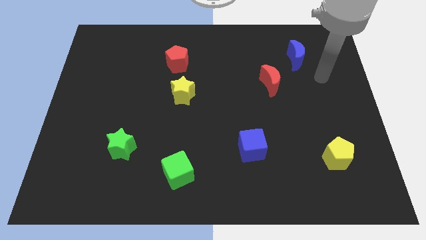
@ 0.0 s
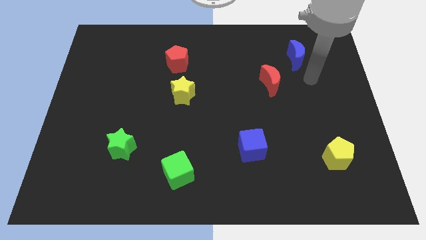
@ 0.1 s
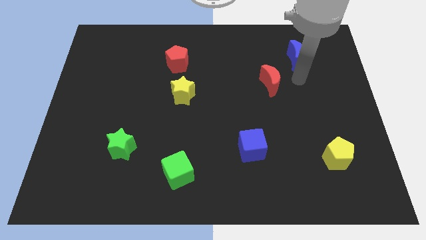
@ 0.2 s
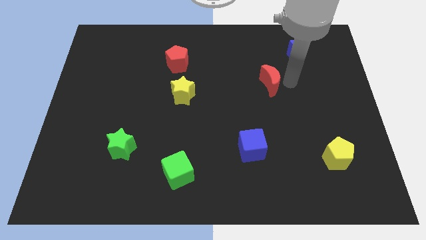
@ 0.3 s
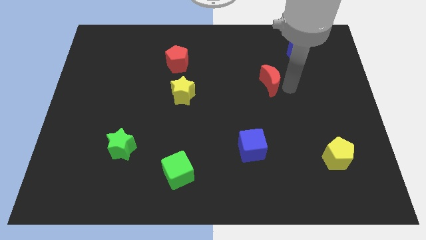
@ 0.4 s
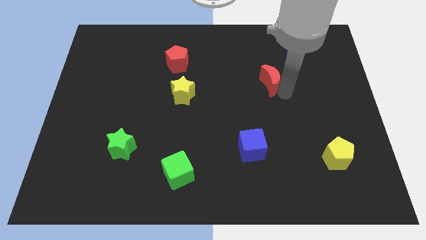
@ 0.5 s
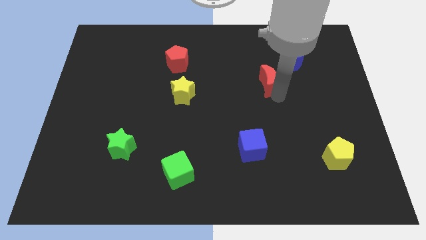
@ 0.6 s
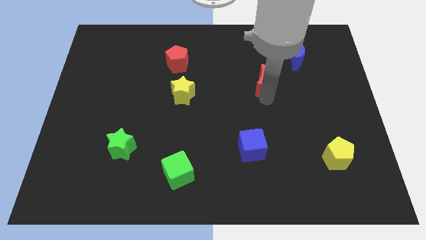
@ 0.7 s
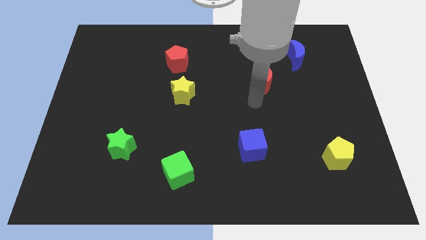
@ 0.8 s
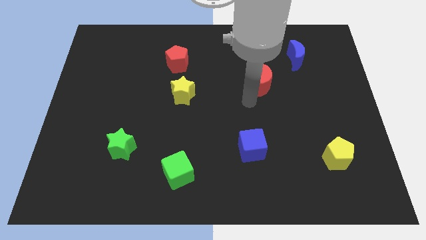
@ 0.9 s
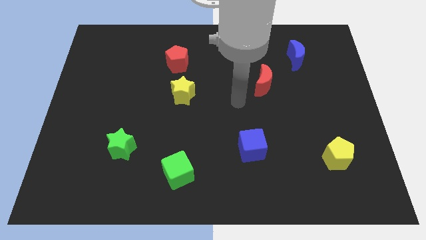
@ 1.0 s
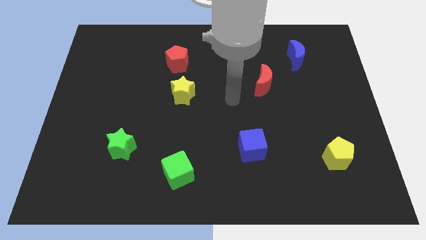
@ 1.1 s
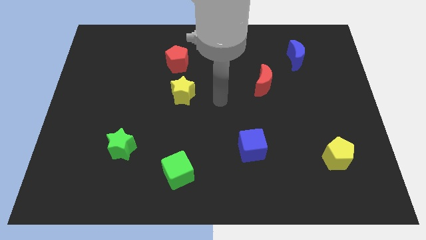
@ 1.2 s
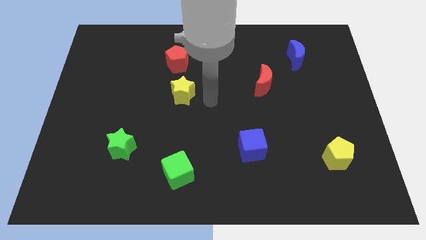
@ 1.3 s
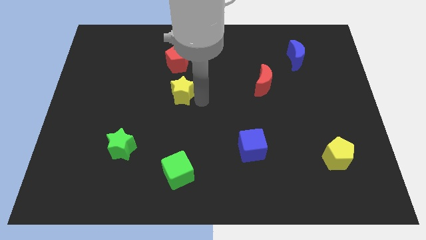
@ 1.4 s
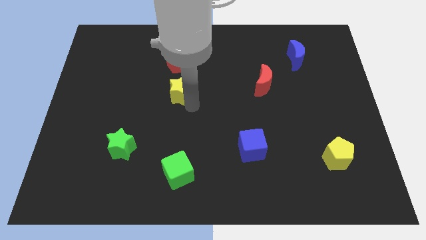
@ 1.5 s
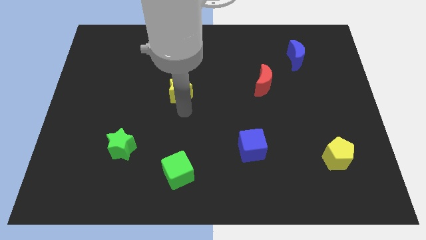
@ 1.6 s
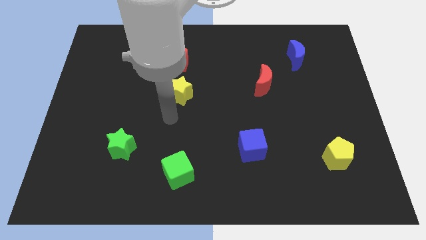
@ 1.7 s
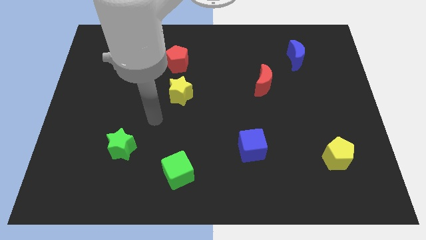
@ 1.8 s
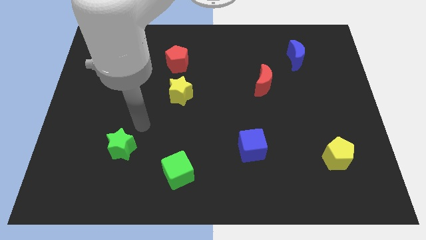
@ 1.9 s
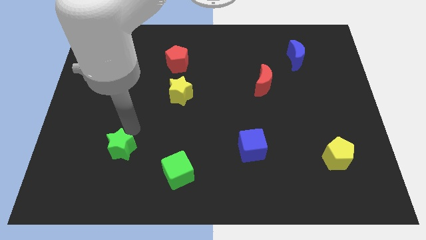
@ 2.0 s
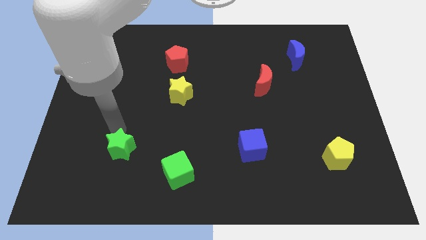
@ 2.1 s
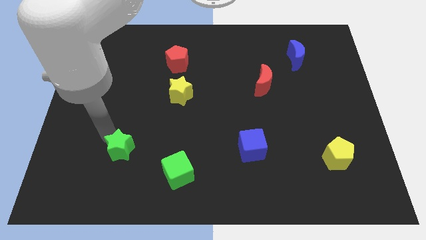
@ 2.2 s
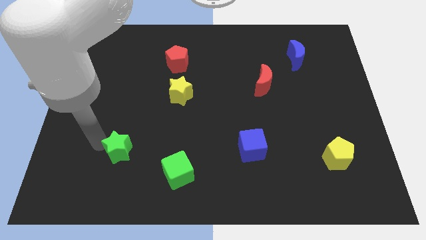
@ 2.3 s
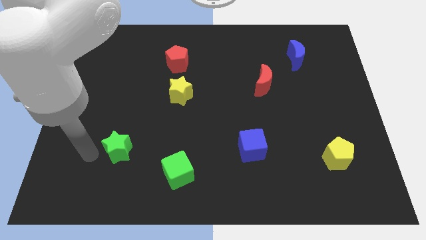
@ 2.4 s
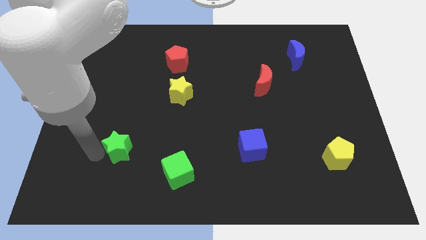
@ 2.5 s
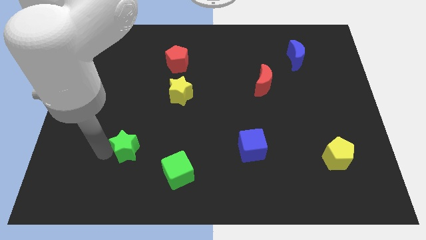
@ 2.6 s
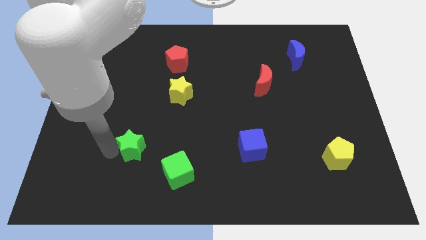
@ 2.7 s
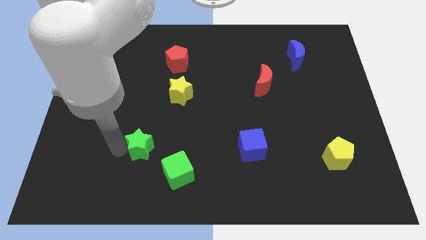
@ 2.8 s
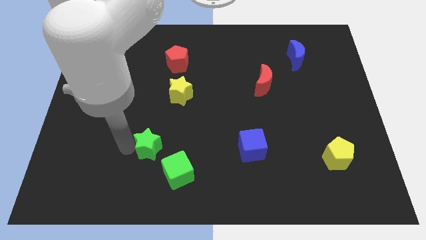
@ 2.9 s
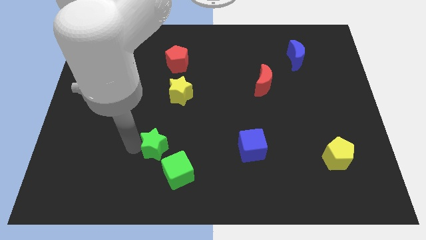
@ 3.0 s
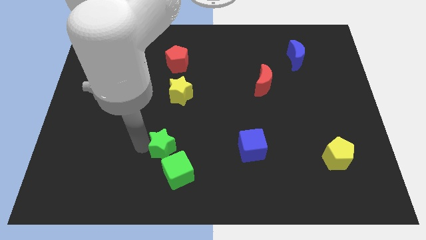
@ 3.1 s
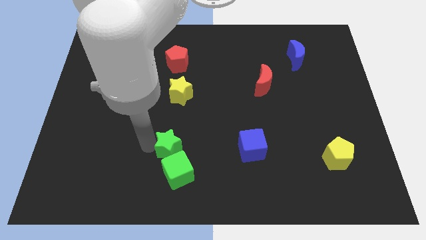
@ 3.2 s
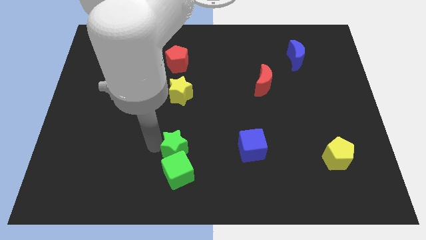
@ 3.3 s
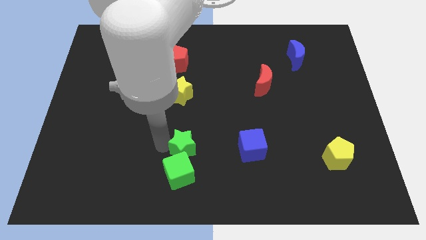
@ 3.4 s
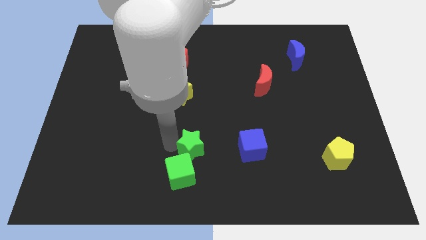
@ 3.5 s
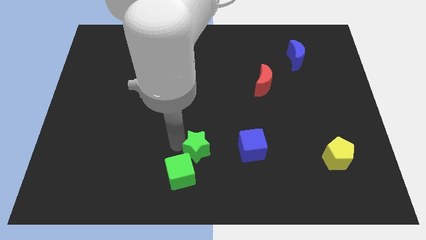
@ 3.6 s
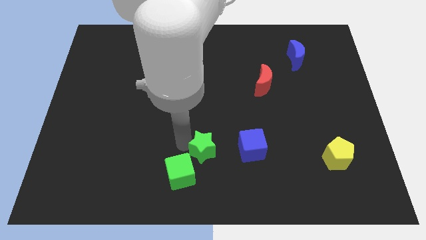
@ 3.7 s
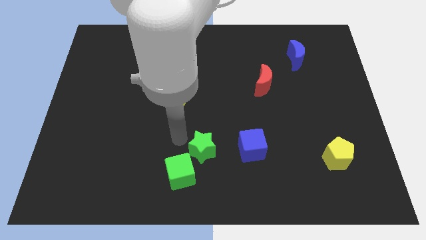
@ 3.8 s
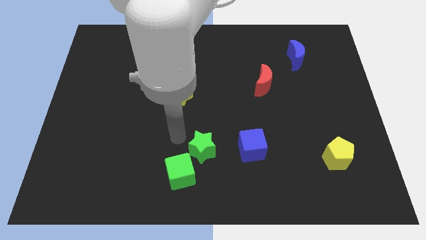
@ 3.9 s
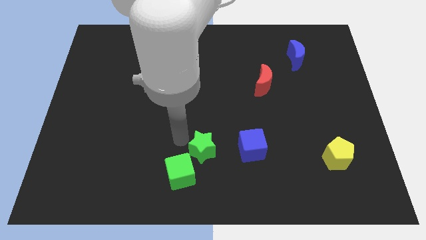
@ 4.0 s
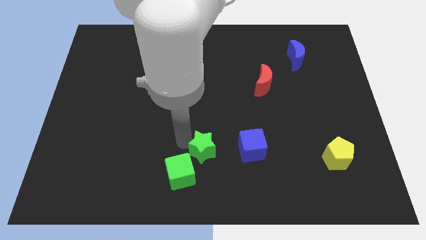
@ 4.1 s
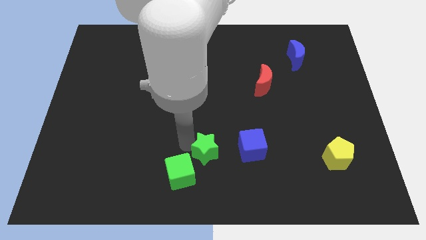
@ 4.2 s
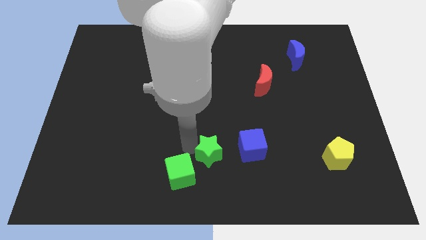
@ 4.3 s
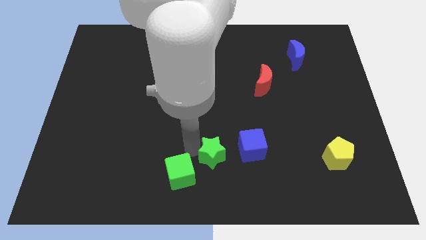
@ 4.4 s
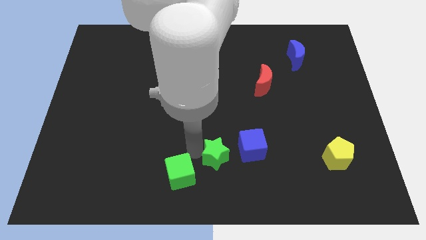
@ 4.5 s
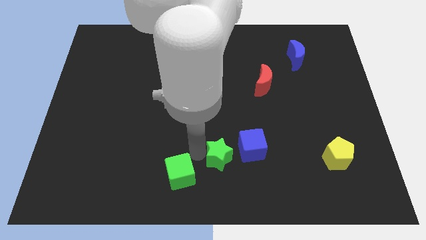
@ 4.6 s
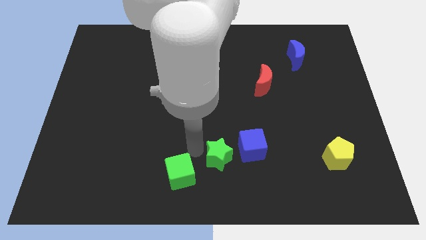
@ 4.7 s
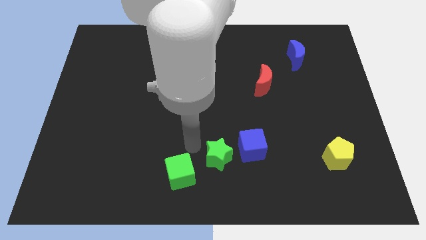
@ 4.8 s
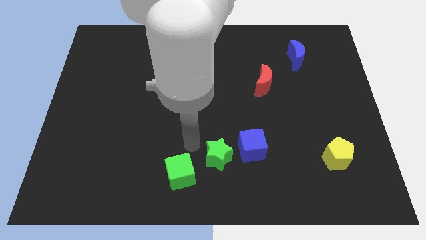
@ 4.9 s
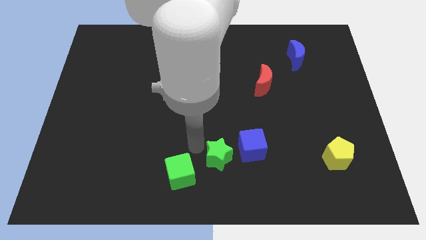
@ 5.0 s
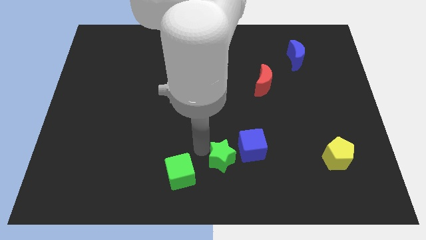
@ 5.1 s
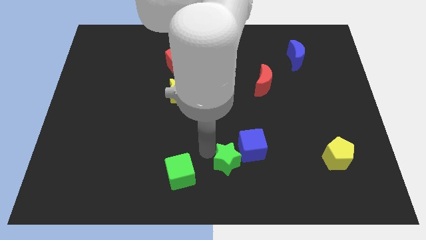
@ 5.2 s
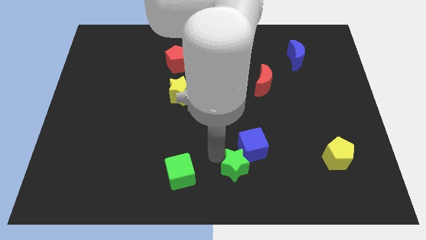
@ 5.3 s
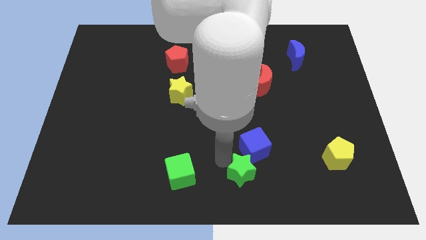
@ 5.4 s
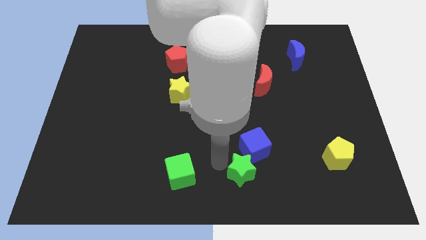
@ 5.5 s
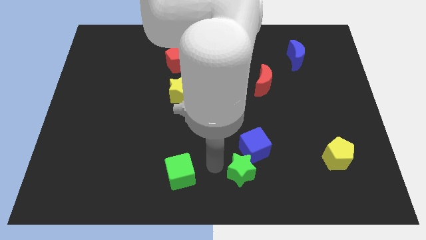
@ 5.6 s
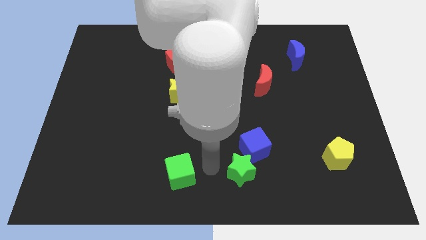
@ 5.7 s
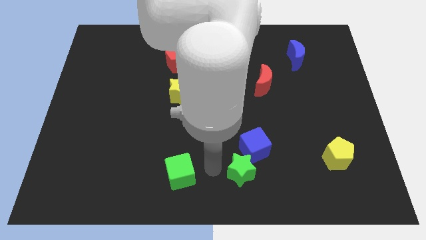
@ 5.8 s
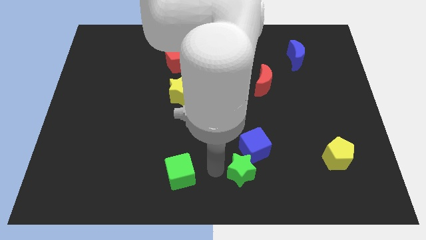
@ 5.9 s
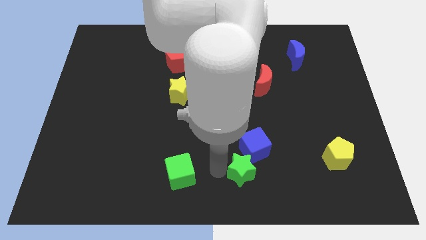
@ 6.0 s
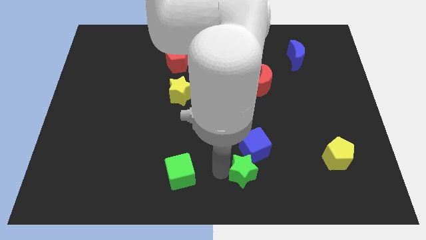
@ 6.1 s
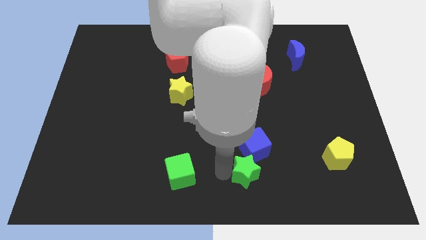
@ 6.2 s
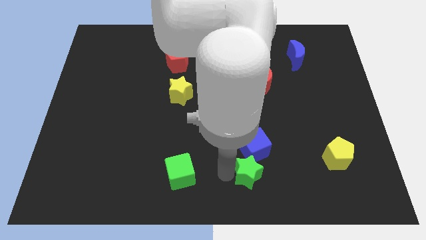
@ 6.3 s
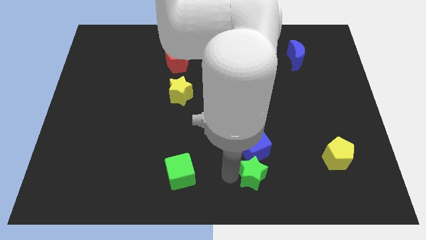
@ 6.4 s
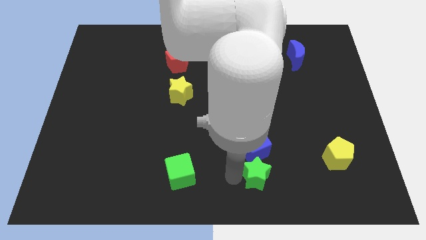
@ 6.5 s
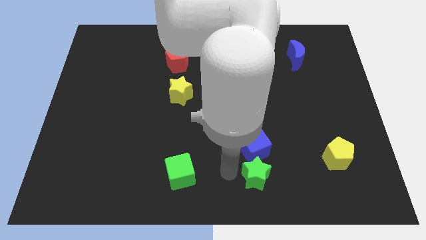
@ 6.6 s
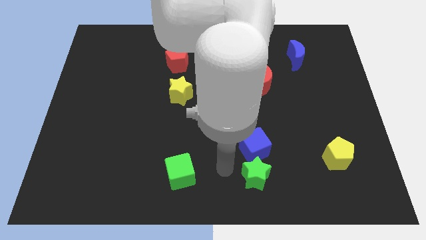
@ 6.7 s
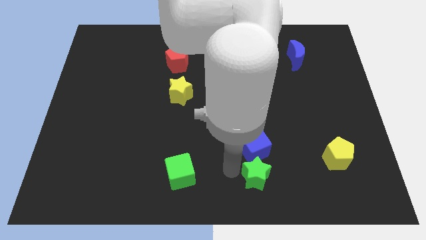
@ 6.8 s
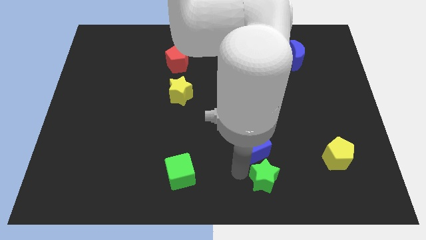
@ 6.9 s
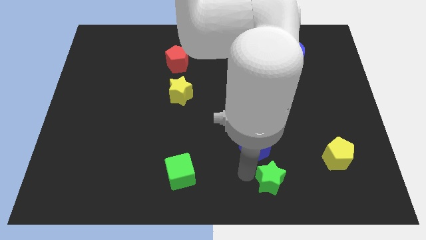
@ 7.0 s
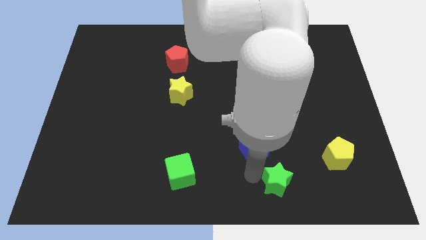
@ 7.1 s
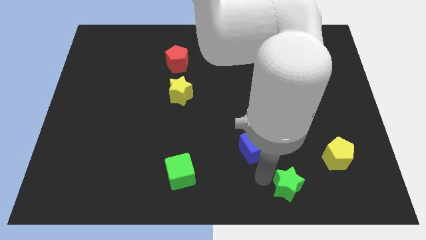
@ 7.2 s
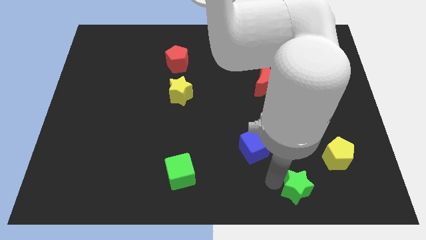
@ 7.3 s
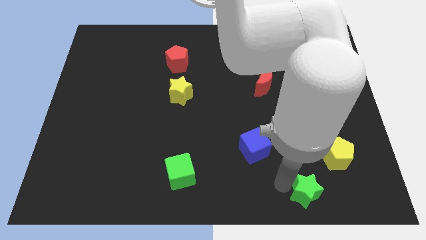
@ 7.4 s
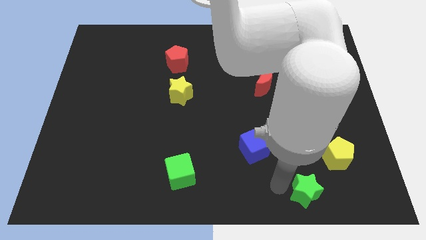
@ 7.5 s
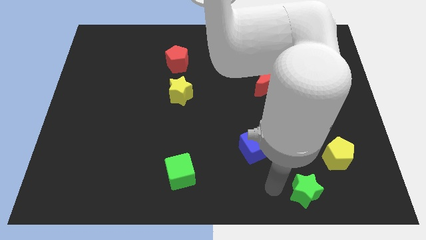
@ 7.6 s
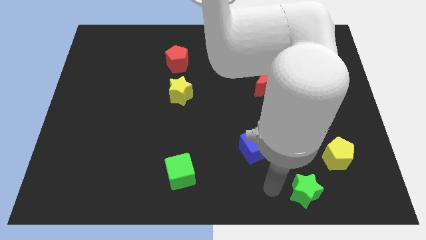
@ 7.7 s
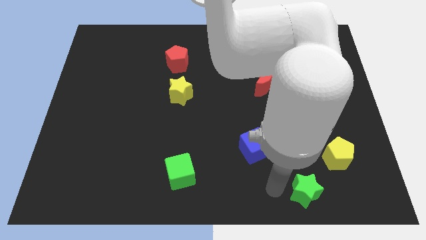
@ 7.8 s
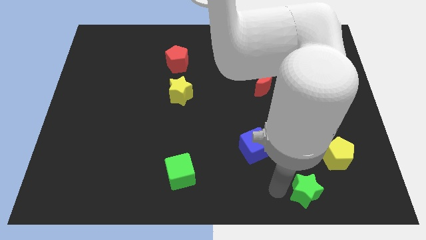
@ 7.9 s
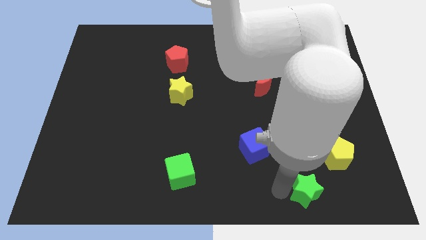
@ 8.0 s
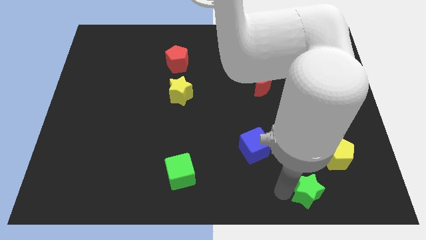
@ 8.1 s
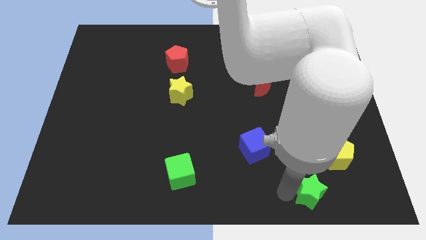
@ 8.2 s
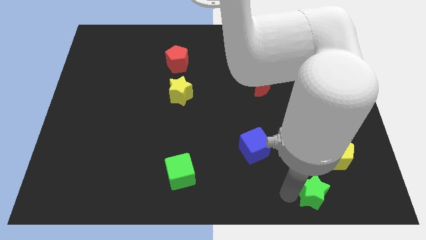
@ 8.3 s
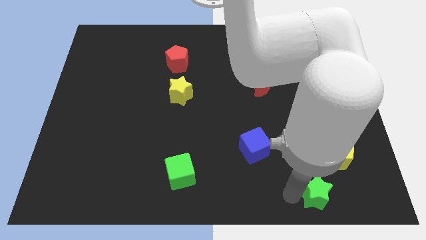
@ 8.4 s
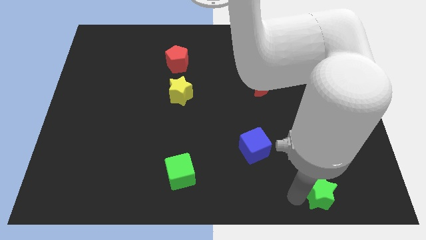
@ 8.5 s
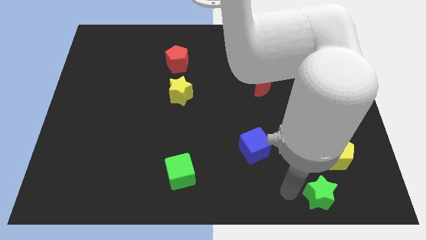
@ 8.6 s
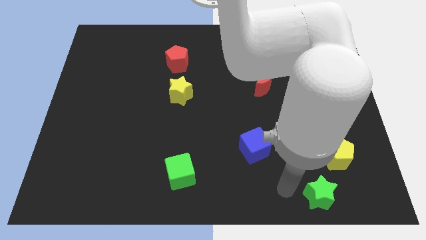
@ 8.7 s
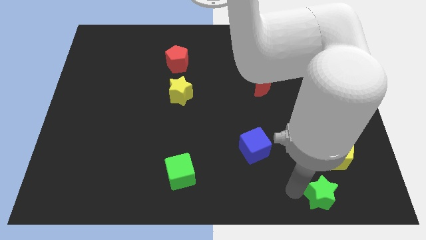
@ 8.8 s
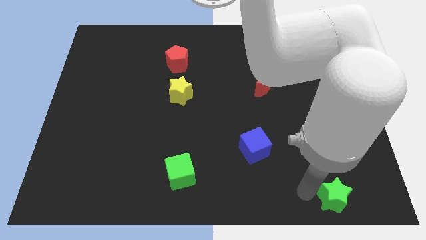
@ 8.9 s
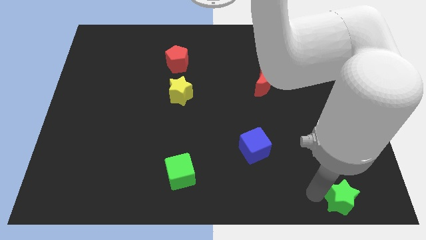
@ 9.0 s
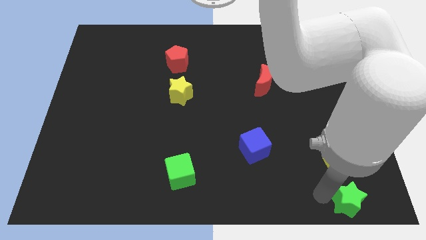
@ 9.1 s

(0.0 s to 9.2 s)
slide the green star to the bottom right of the board
